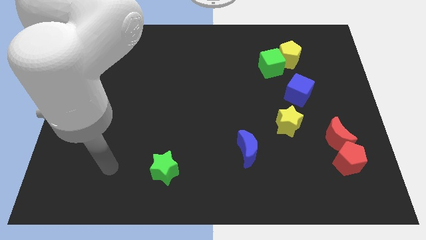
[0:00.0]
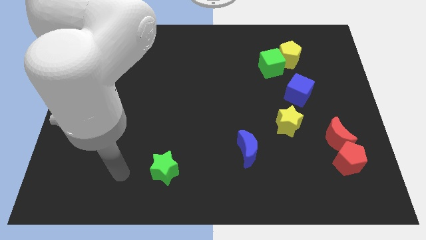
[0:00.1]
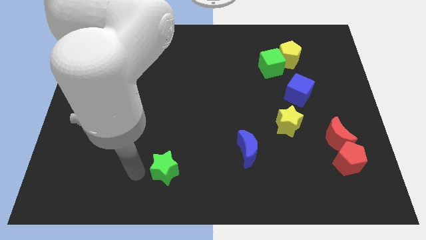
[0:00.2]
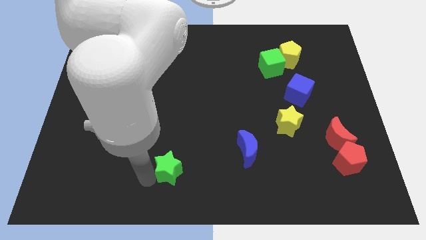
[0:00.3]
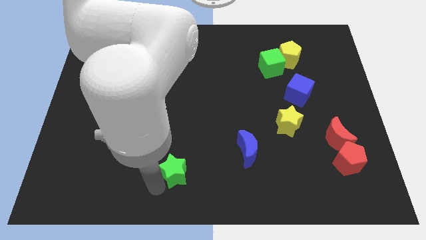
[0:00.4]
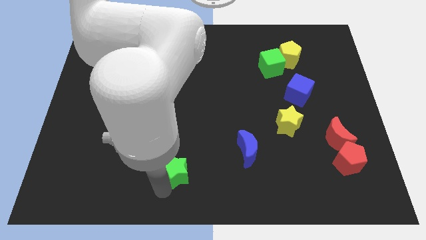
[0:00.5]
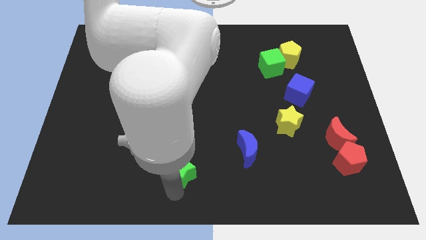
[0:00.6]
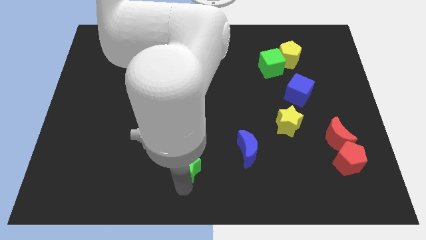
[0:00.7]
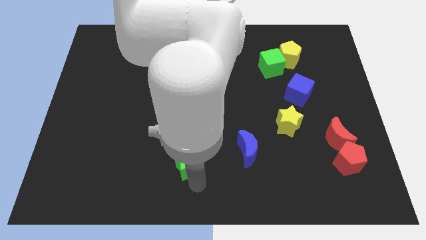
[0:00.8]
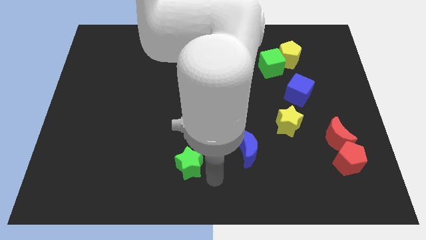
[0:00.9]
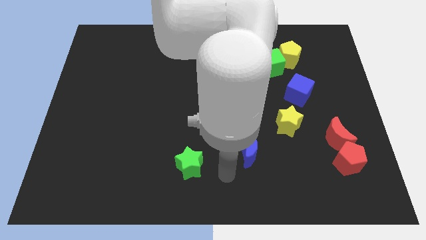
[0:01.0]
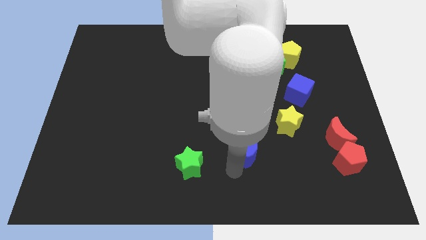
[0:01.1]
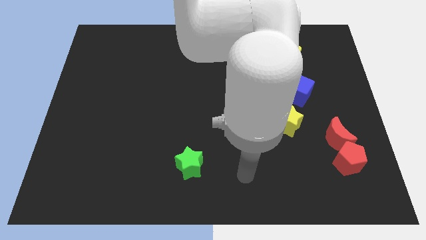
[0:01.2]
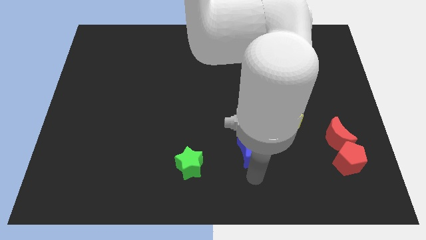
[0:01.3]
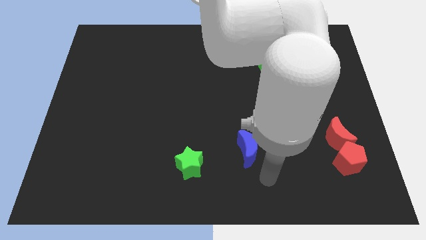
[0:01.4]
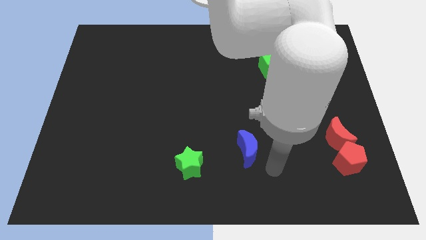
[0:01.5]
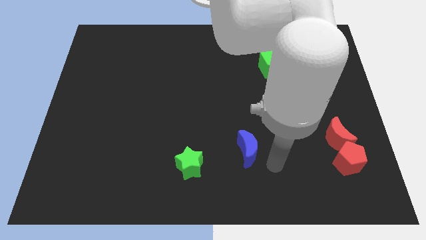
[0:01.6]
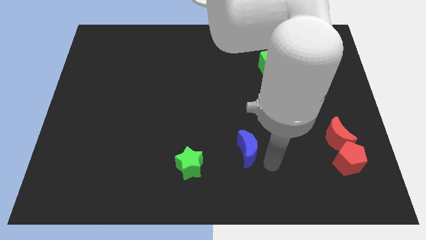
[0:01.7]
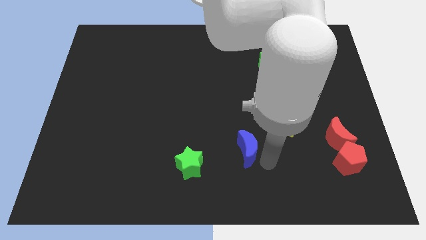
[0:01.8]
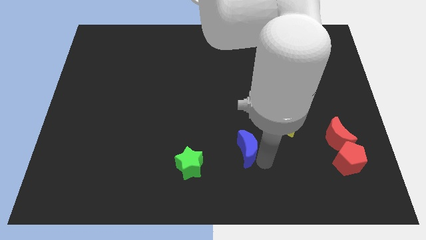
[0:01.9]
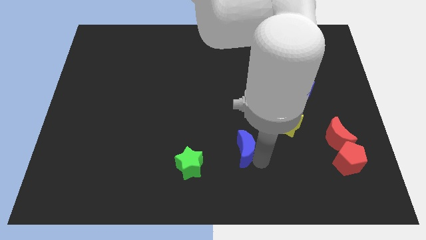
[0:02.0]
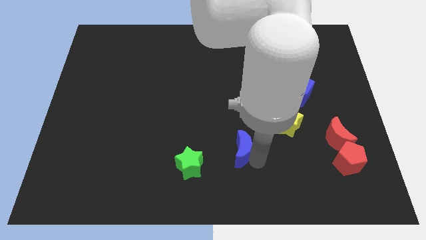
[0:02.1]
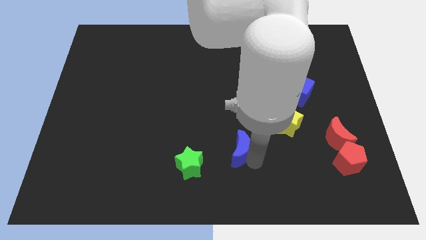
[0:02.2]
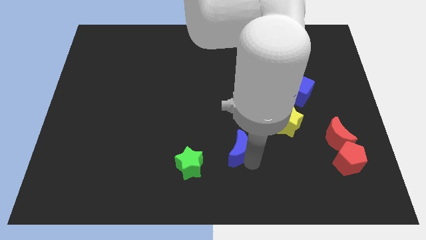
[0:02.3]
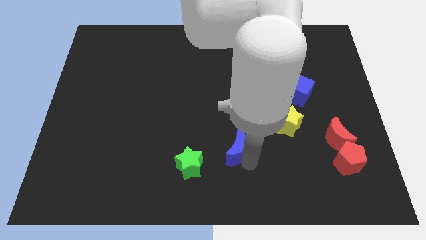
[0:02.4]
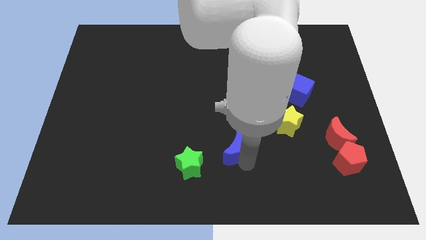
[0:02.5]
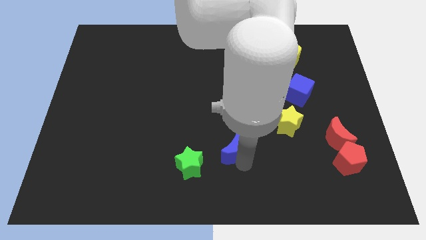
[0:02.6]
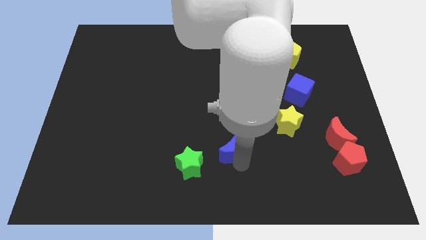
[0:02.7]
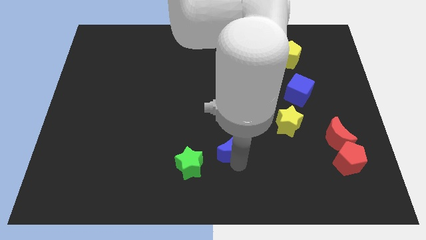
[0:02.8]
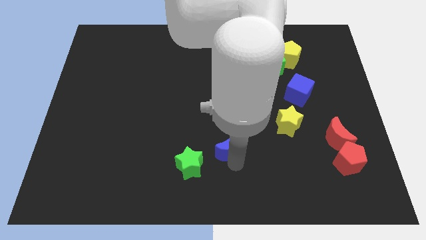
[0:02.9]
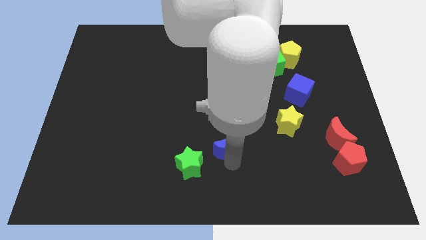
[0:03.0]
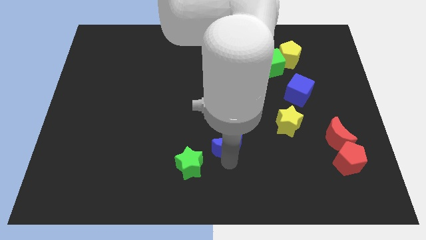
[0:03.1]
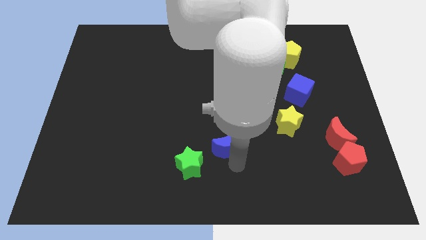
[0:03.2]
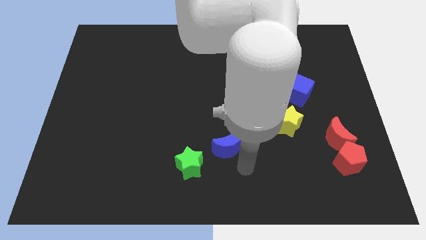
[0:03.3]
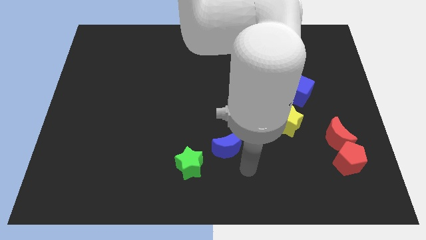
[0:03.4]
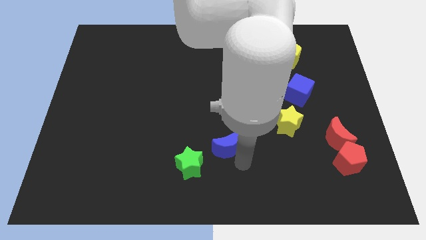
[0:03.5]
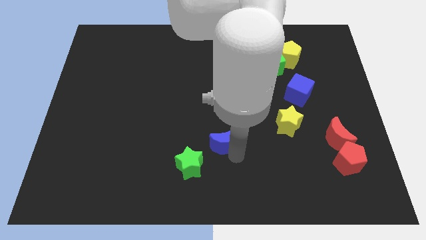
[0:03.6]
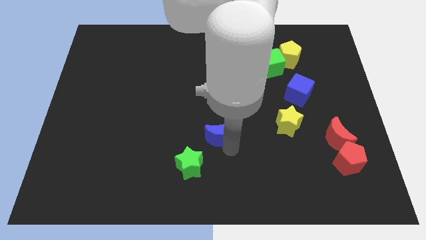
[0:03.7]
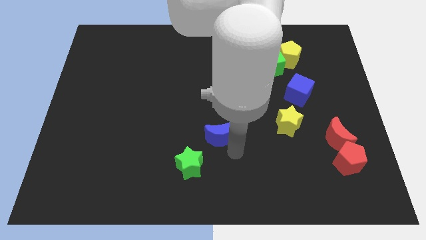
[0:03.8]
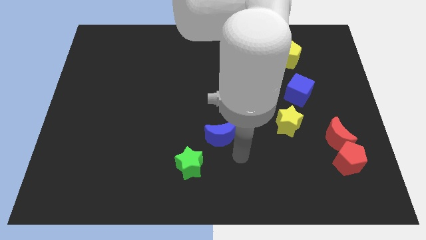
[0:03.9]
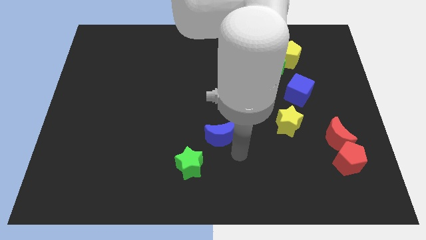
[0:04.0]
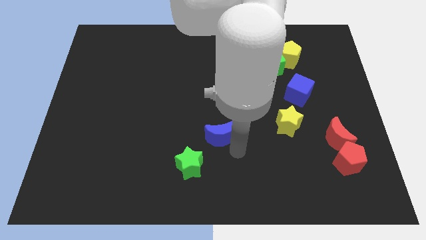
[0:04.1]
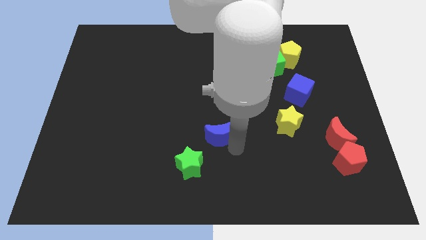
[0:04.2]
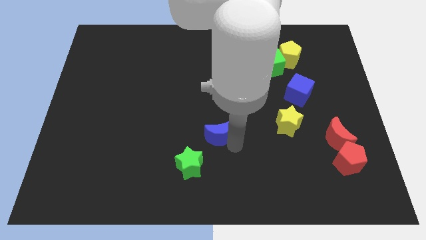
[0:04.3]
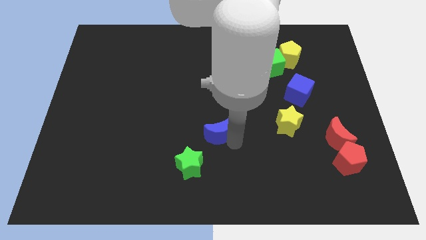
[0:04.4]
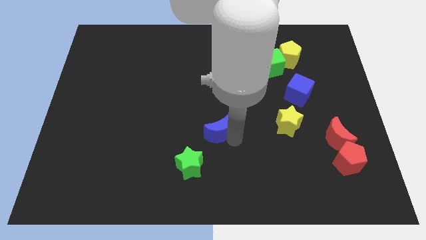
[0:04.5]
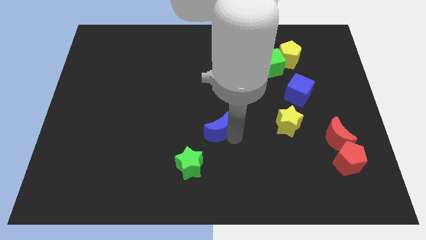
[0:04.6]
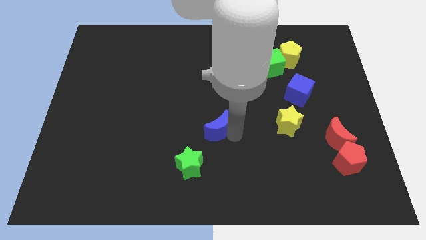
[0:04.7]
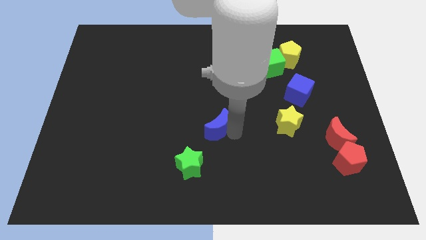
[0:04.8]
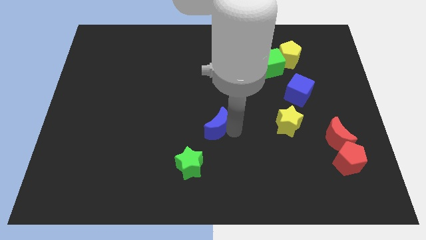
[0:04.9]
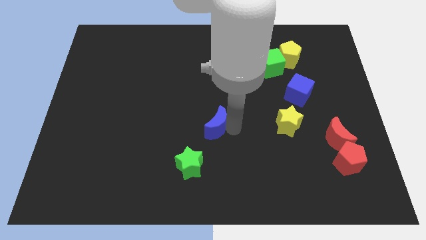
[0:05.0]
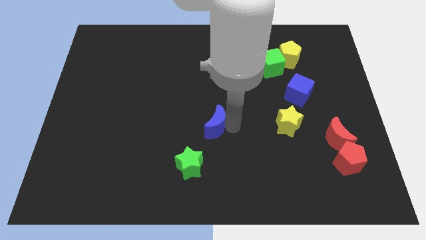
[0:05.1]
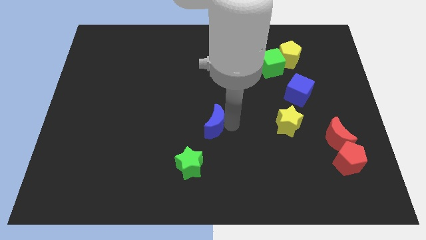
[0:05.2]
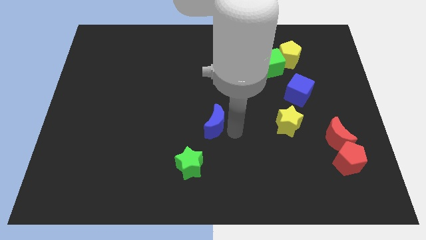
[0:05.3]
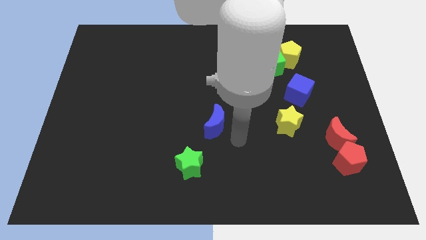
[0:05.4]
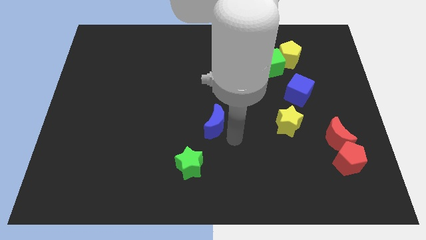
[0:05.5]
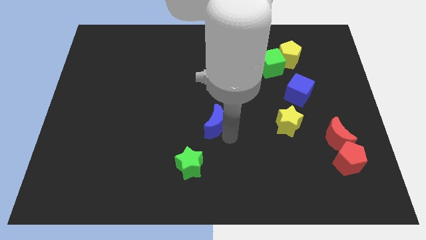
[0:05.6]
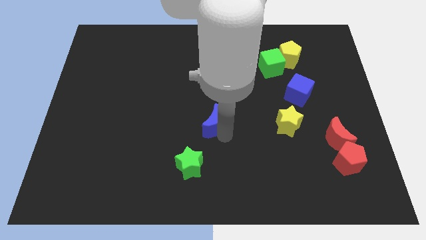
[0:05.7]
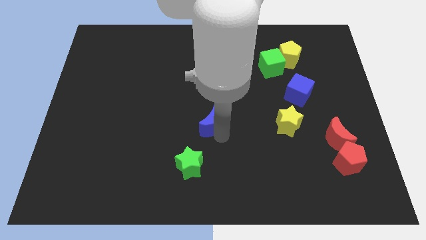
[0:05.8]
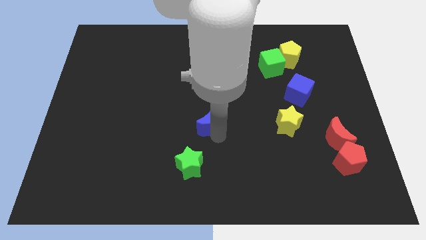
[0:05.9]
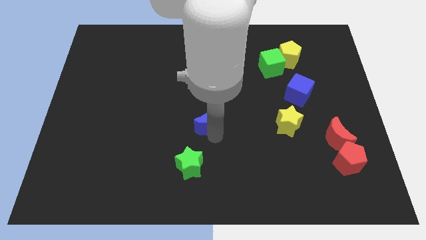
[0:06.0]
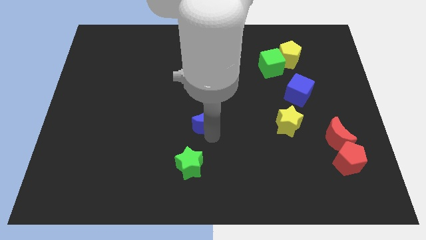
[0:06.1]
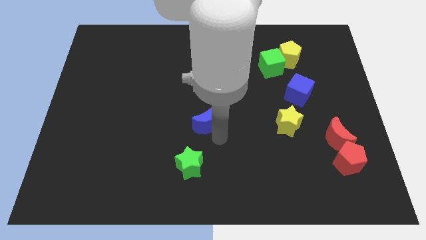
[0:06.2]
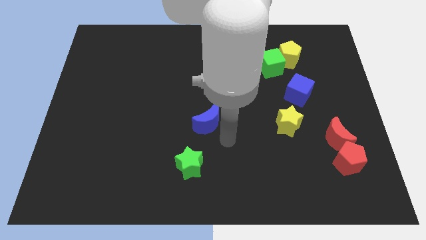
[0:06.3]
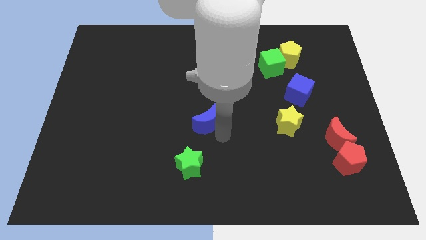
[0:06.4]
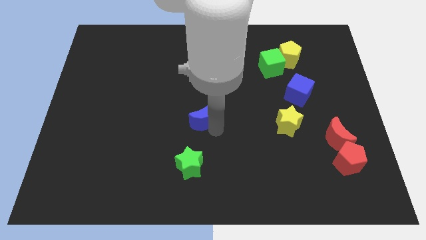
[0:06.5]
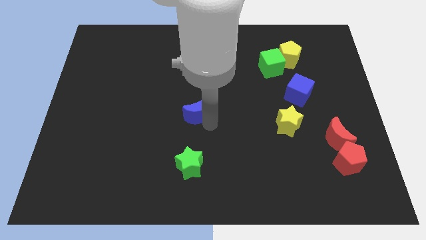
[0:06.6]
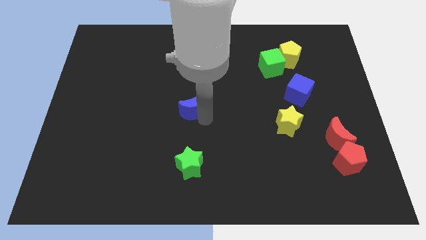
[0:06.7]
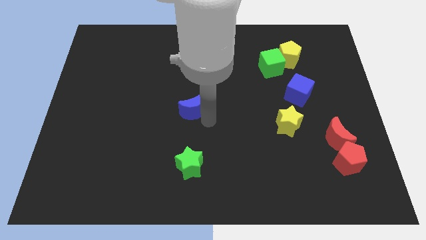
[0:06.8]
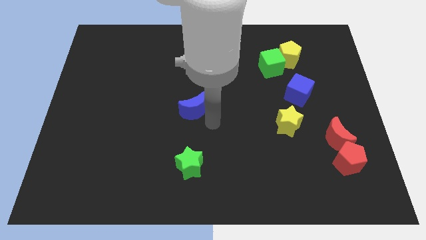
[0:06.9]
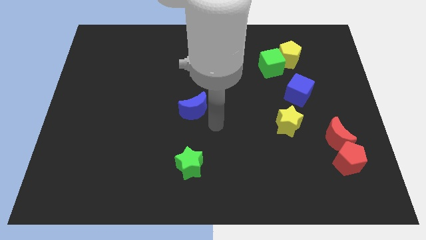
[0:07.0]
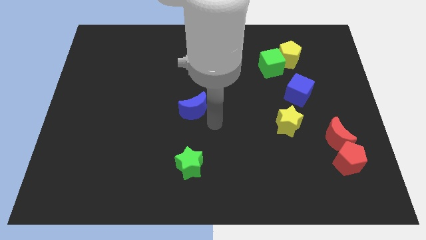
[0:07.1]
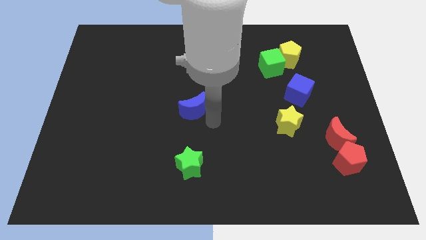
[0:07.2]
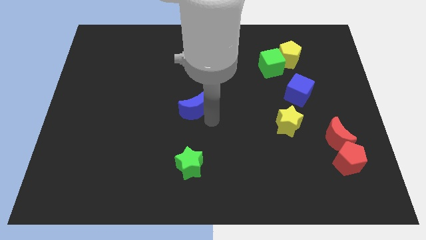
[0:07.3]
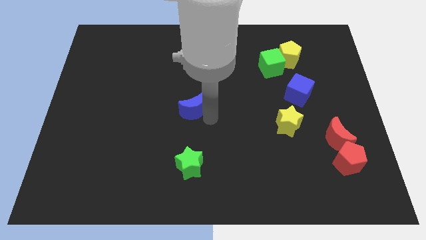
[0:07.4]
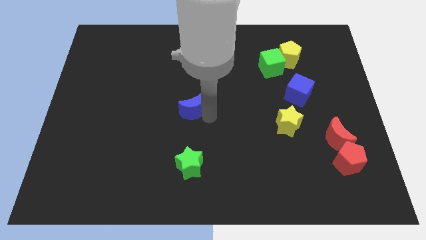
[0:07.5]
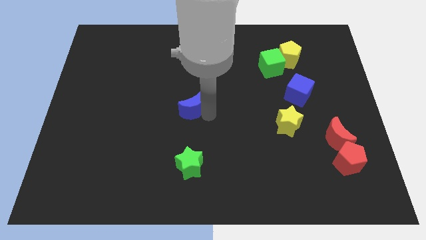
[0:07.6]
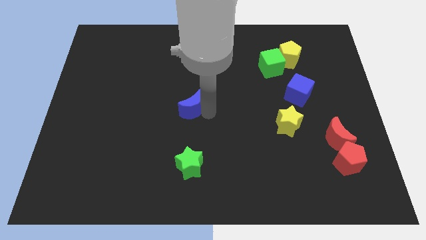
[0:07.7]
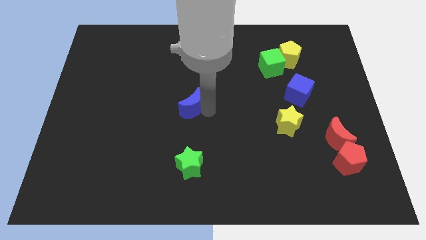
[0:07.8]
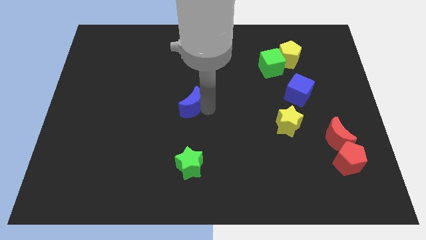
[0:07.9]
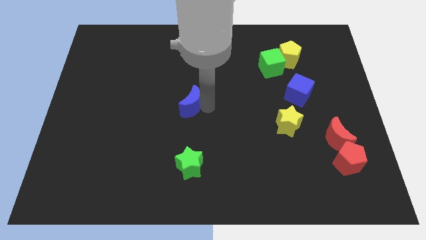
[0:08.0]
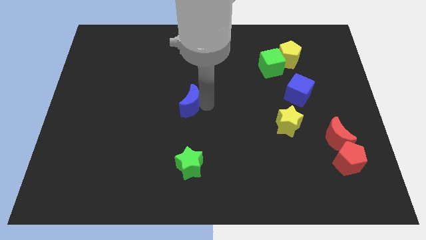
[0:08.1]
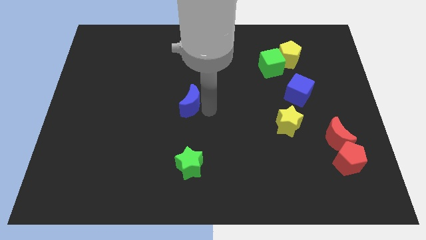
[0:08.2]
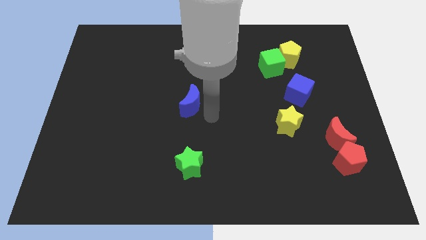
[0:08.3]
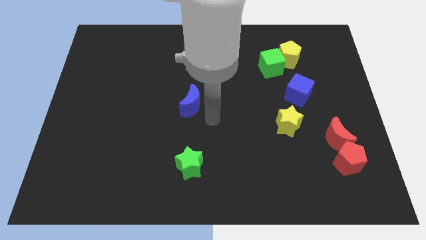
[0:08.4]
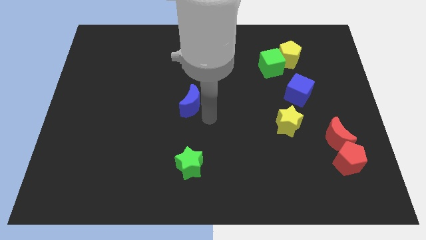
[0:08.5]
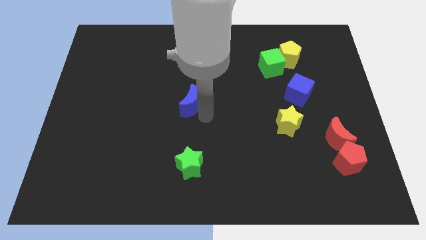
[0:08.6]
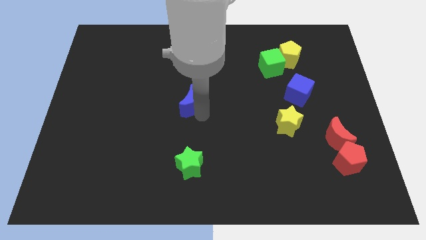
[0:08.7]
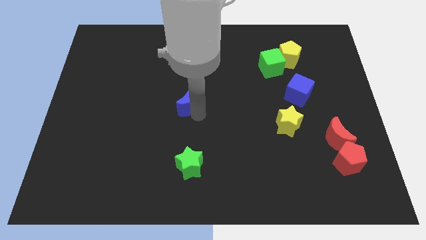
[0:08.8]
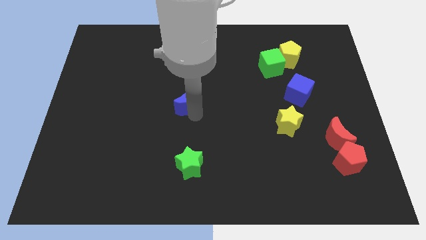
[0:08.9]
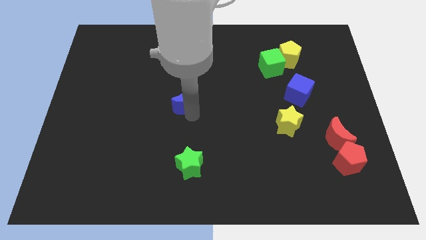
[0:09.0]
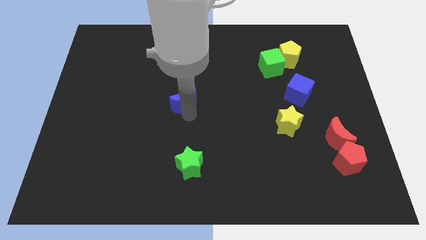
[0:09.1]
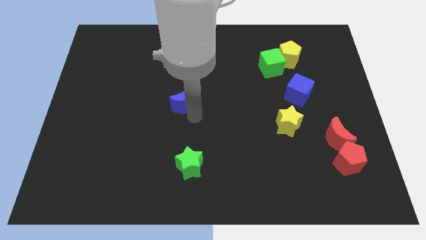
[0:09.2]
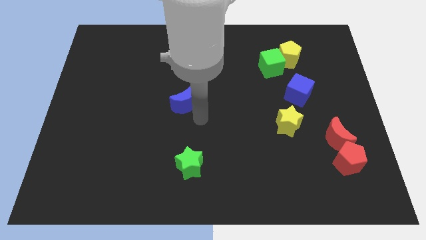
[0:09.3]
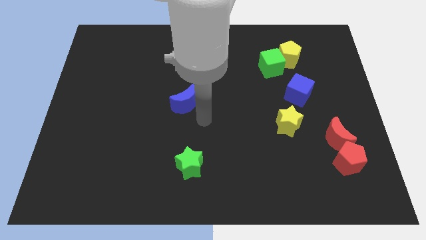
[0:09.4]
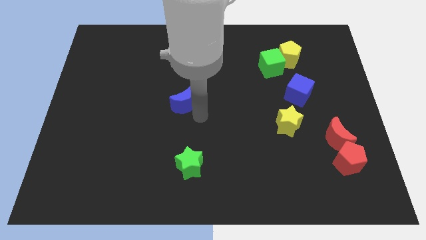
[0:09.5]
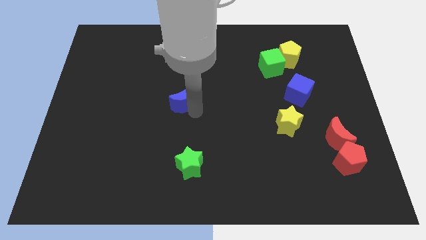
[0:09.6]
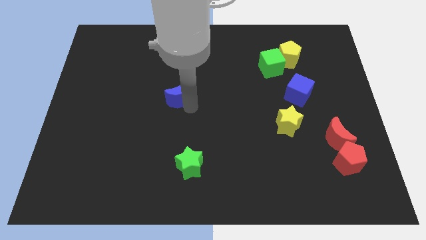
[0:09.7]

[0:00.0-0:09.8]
push the blue moon up and to the left
